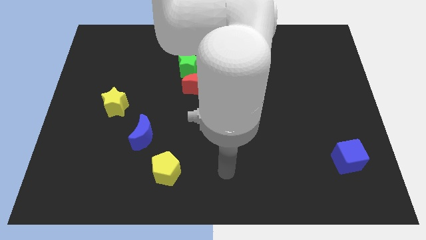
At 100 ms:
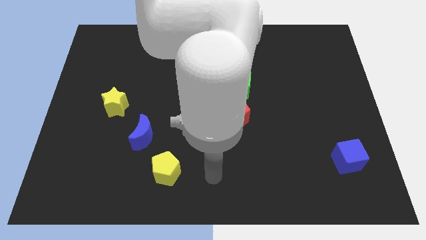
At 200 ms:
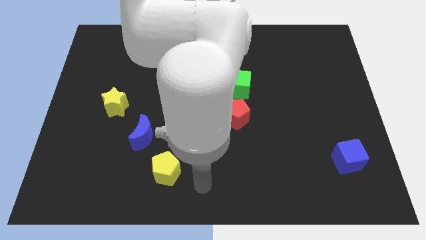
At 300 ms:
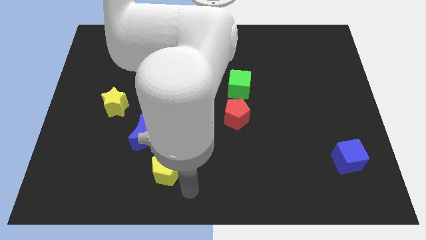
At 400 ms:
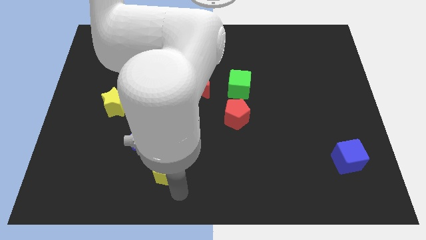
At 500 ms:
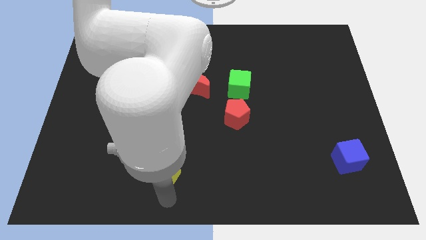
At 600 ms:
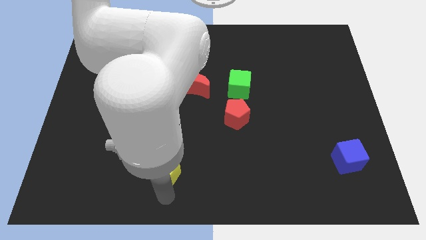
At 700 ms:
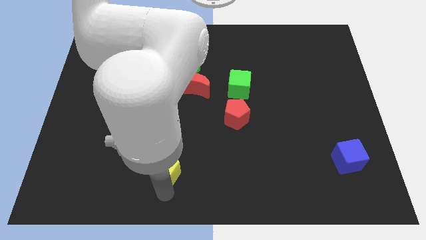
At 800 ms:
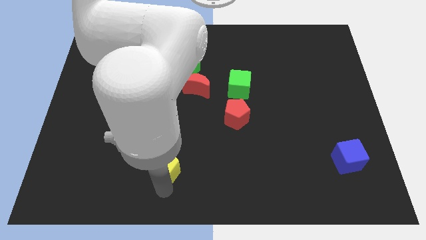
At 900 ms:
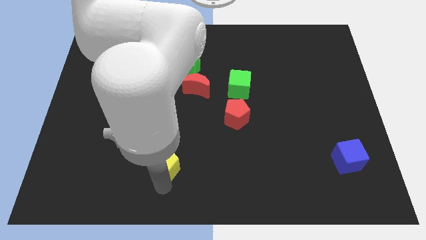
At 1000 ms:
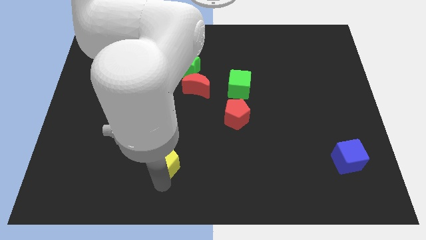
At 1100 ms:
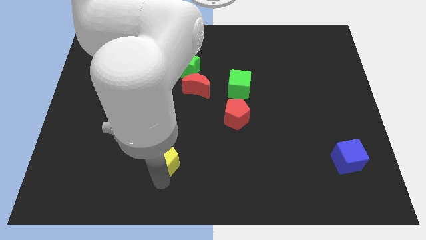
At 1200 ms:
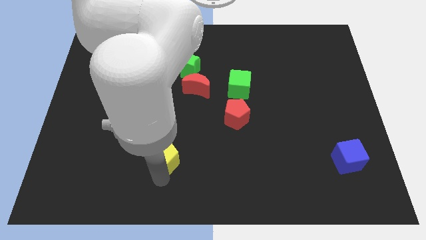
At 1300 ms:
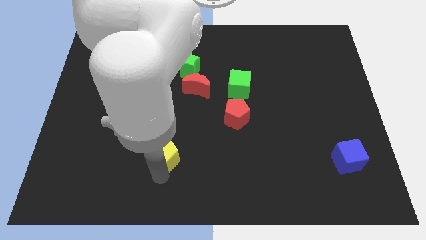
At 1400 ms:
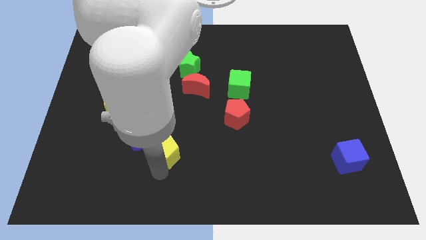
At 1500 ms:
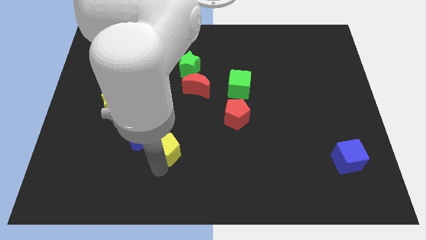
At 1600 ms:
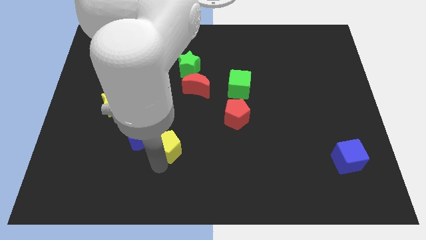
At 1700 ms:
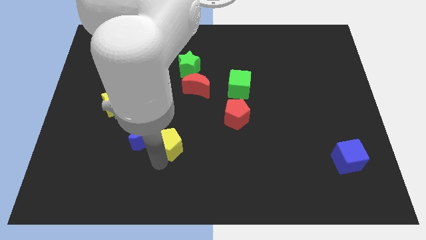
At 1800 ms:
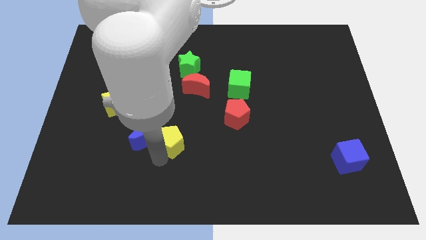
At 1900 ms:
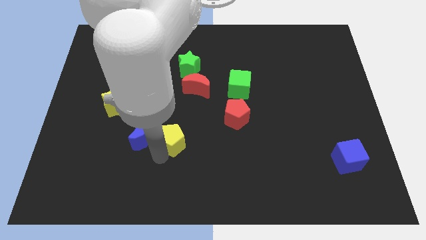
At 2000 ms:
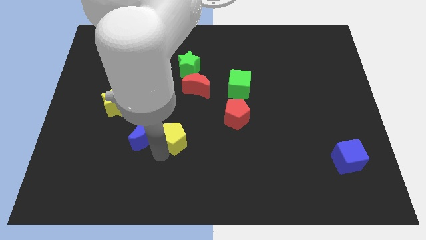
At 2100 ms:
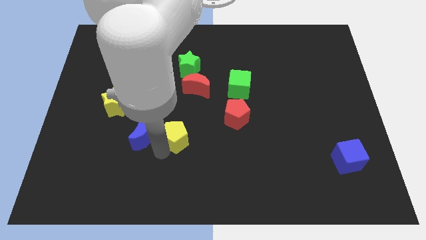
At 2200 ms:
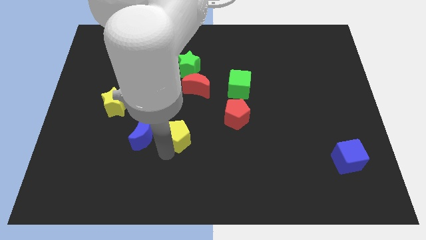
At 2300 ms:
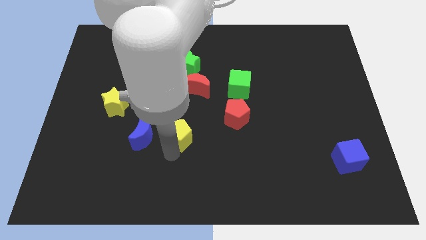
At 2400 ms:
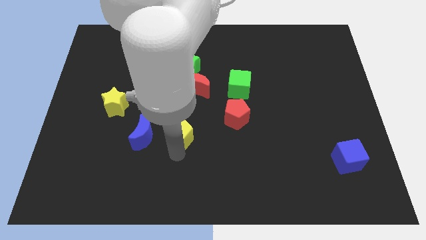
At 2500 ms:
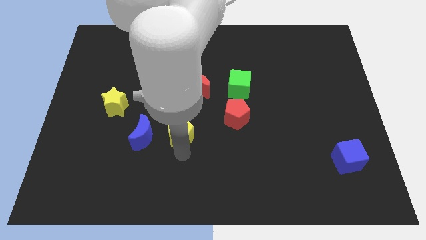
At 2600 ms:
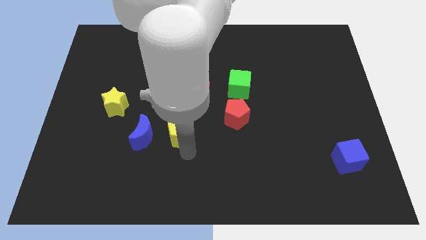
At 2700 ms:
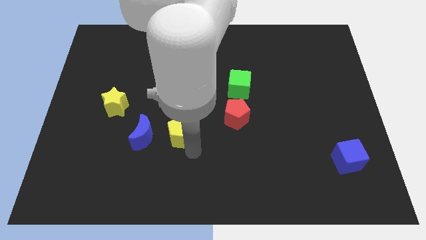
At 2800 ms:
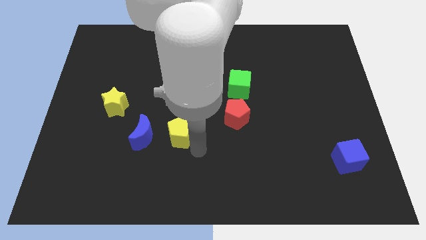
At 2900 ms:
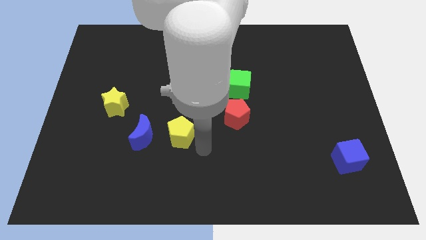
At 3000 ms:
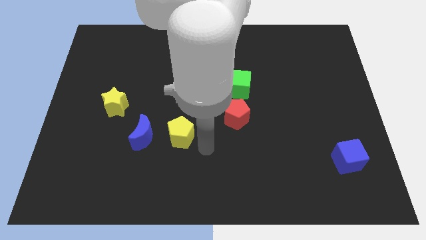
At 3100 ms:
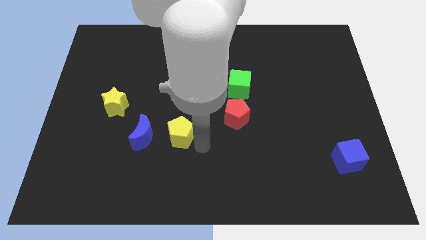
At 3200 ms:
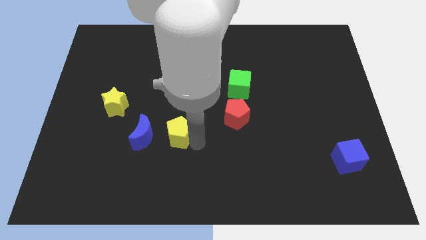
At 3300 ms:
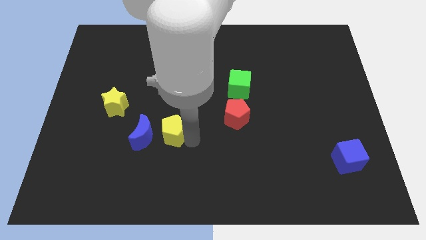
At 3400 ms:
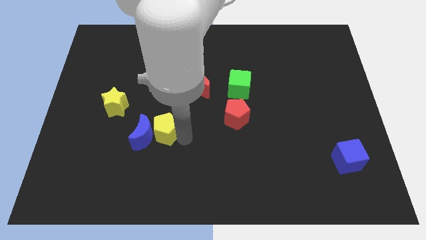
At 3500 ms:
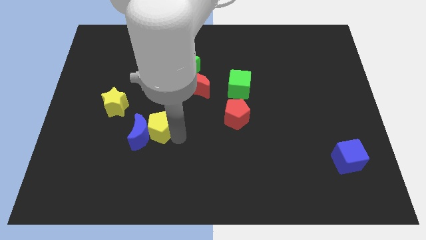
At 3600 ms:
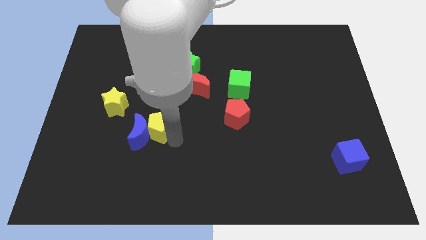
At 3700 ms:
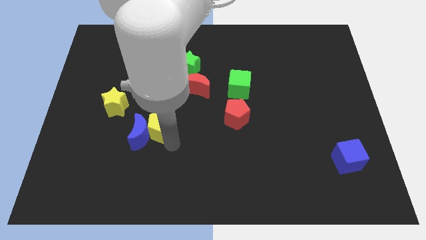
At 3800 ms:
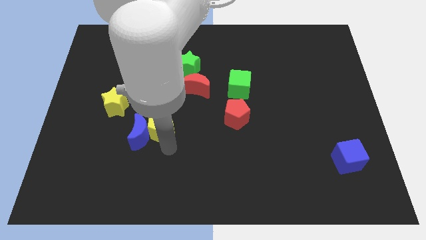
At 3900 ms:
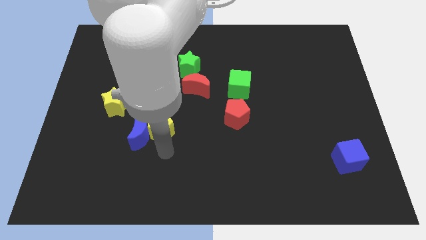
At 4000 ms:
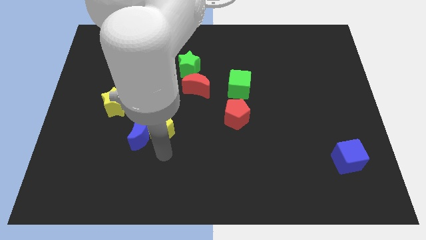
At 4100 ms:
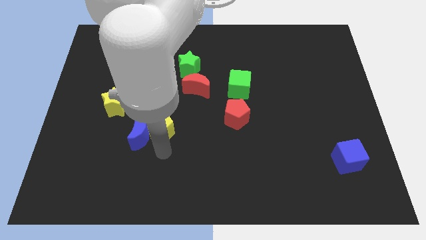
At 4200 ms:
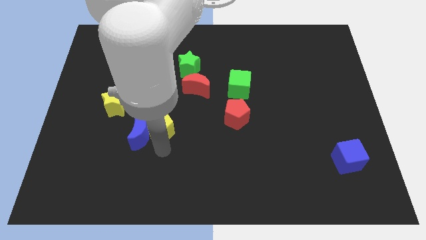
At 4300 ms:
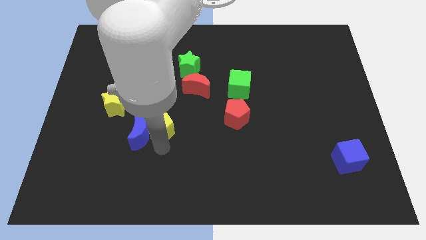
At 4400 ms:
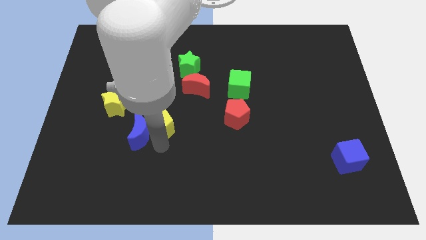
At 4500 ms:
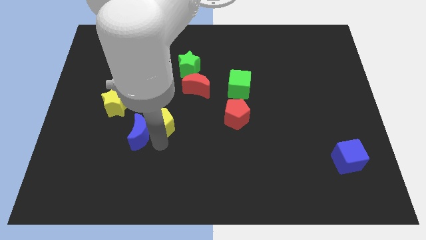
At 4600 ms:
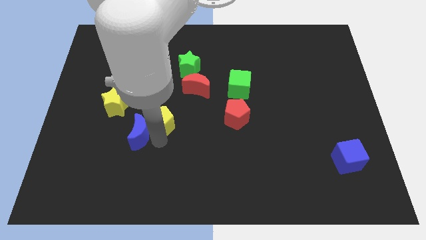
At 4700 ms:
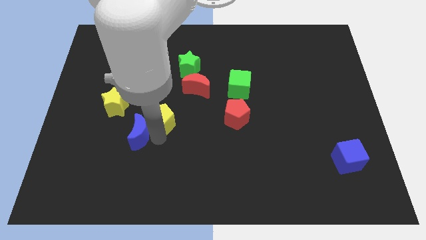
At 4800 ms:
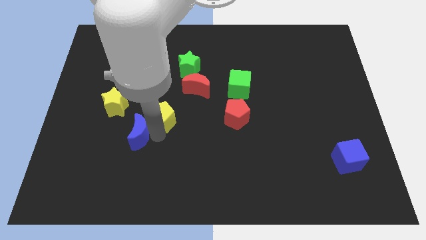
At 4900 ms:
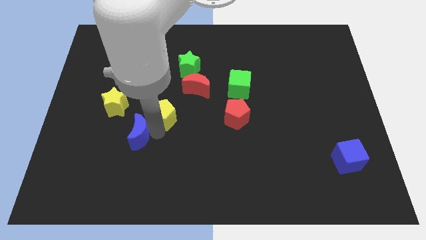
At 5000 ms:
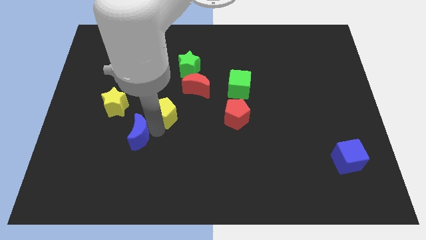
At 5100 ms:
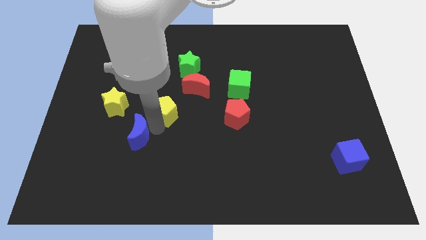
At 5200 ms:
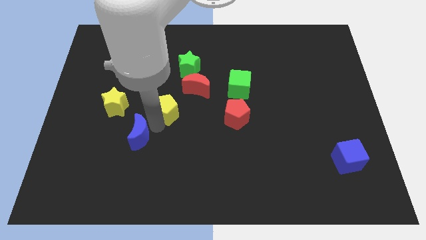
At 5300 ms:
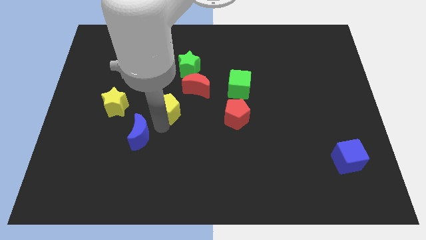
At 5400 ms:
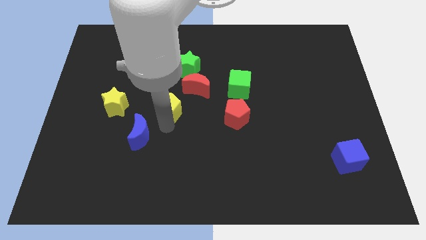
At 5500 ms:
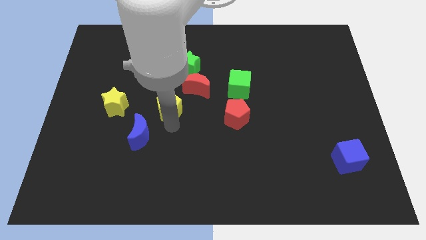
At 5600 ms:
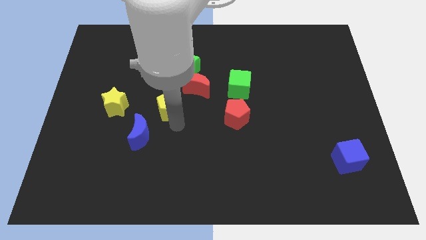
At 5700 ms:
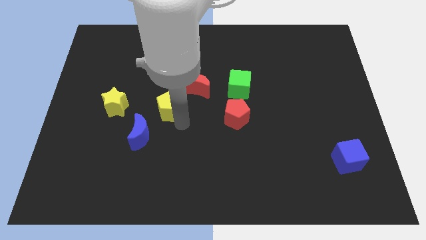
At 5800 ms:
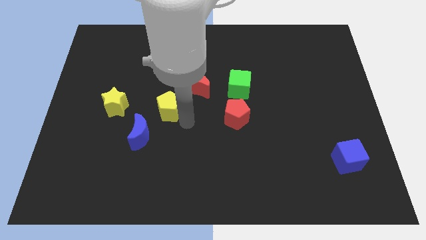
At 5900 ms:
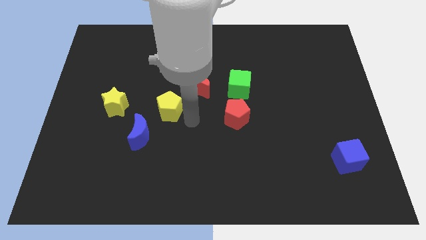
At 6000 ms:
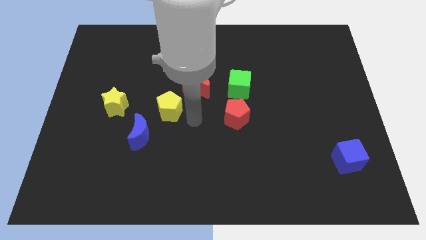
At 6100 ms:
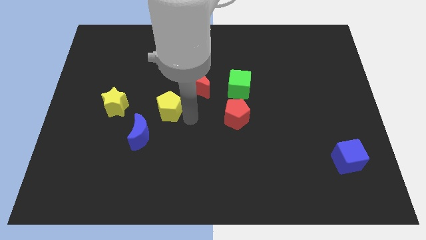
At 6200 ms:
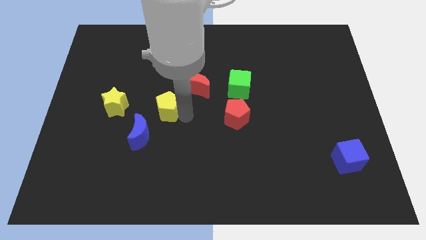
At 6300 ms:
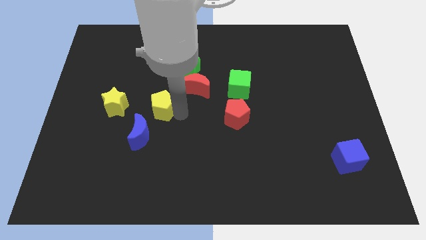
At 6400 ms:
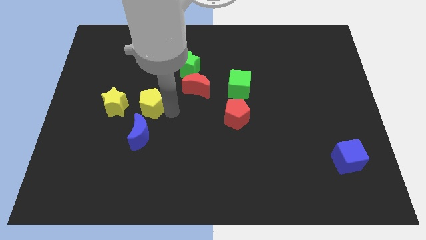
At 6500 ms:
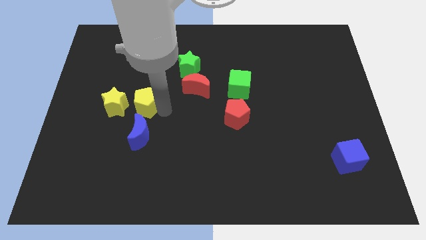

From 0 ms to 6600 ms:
move the yellow pentagon diagonally up and to the right of the yellow star

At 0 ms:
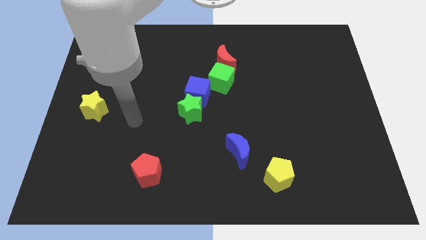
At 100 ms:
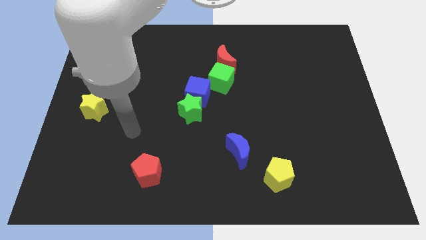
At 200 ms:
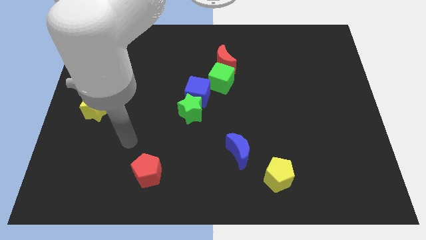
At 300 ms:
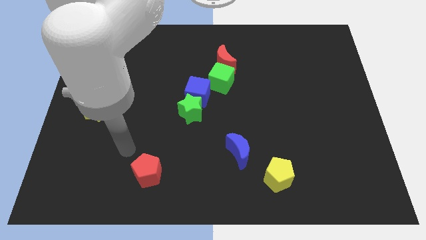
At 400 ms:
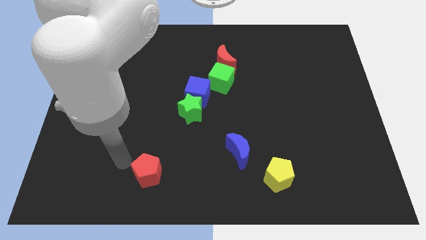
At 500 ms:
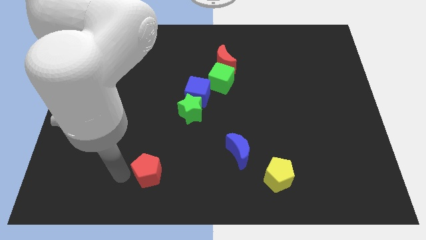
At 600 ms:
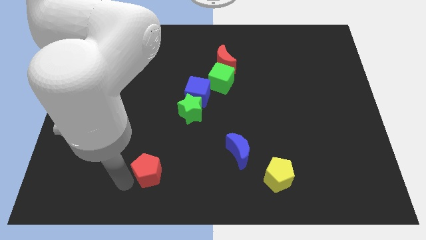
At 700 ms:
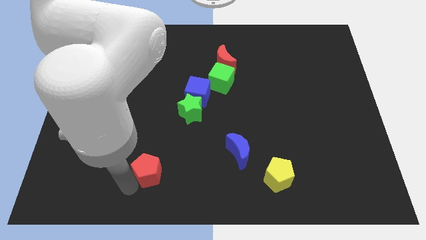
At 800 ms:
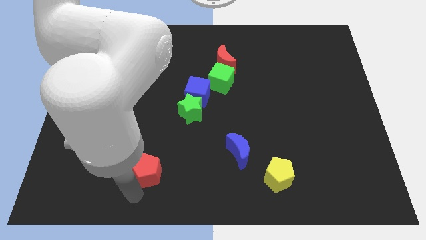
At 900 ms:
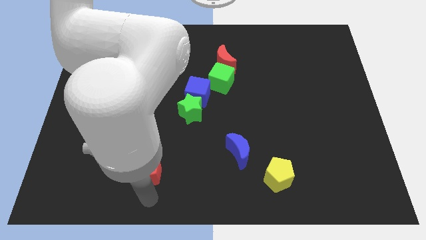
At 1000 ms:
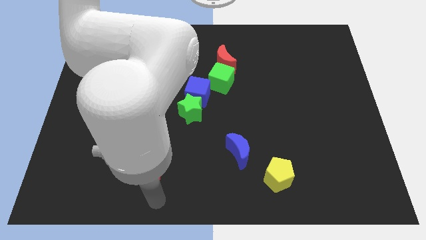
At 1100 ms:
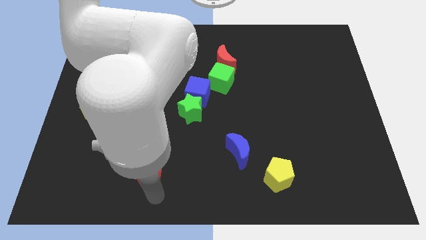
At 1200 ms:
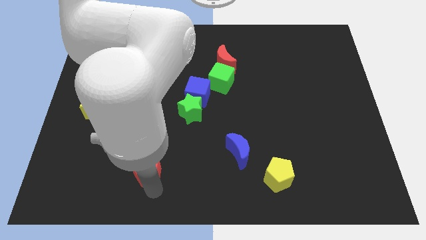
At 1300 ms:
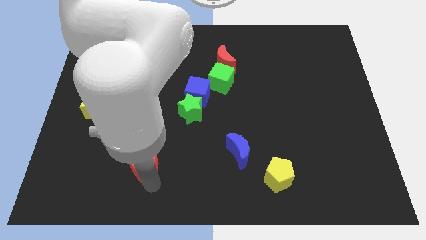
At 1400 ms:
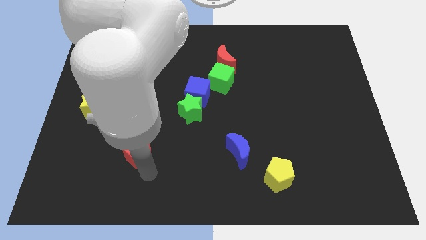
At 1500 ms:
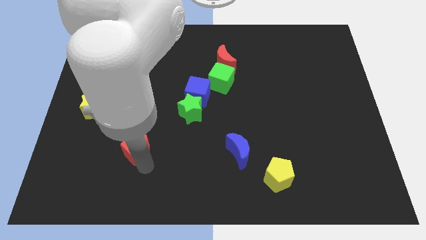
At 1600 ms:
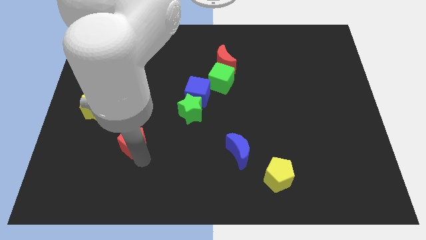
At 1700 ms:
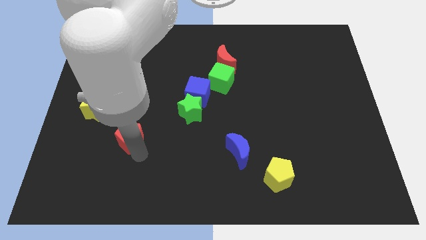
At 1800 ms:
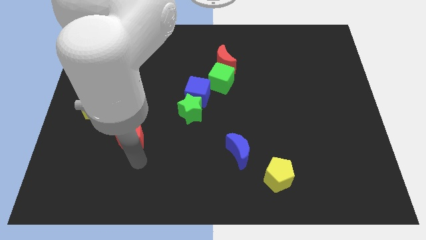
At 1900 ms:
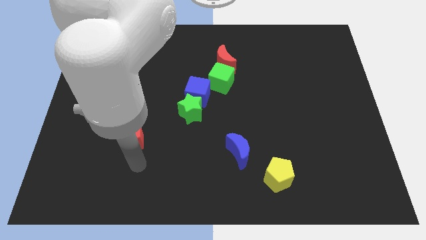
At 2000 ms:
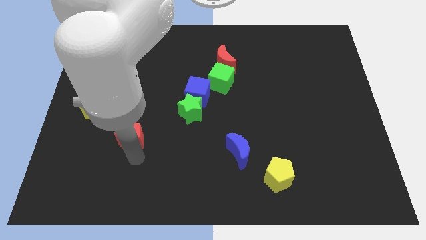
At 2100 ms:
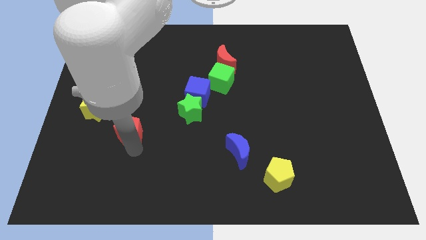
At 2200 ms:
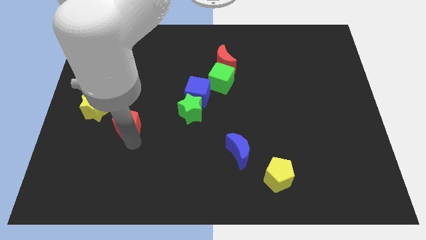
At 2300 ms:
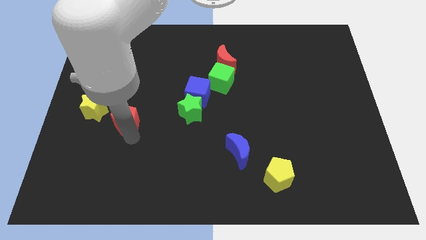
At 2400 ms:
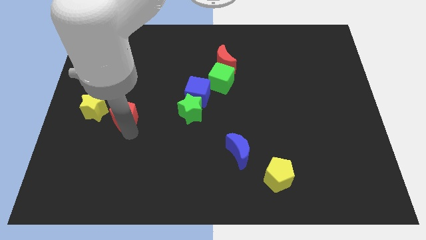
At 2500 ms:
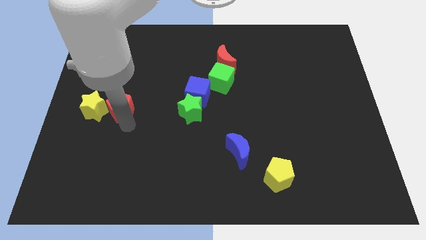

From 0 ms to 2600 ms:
slide the red pentagon diagonally up and to the right of the yellow star
